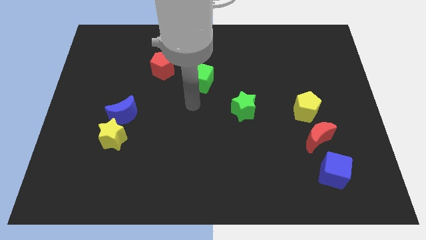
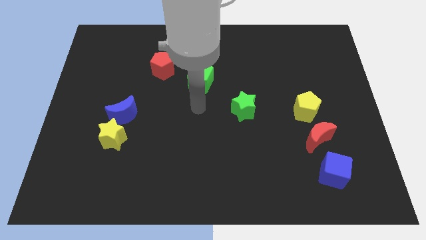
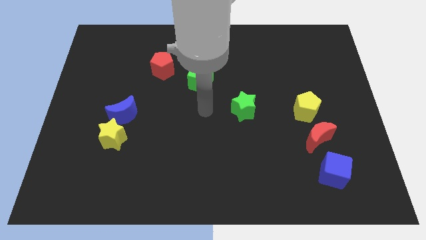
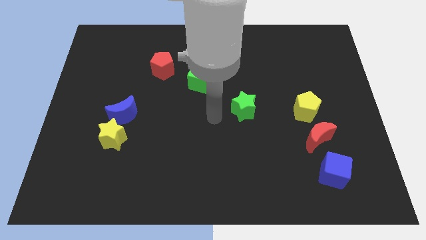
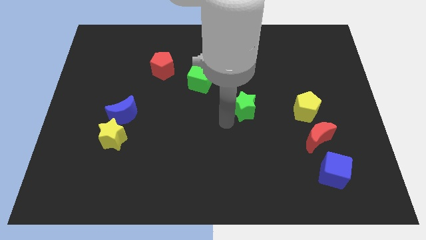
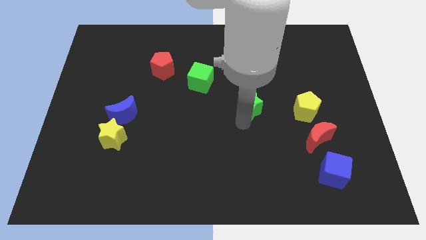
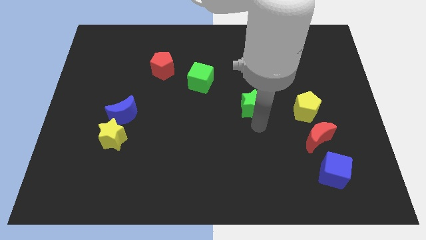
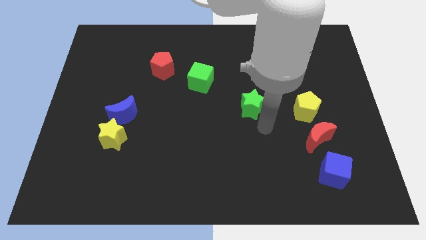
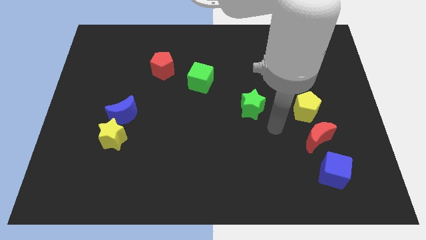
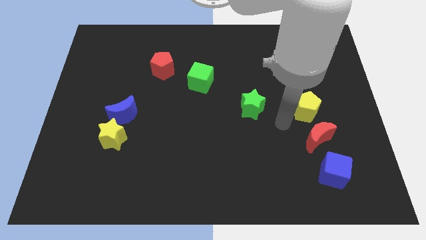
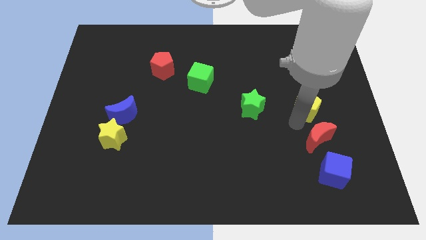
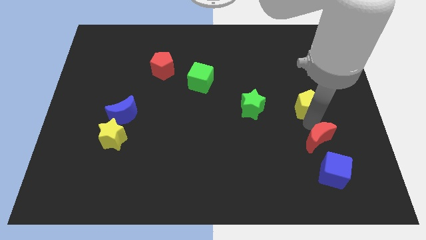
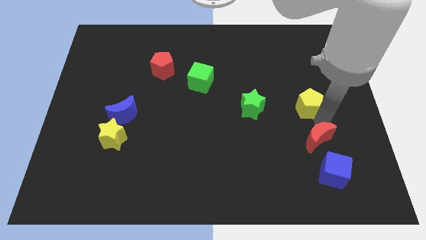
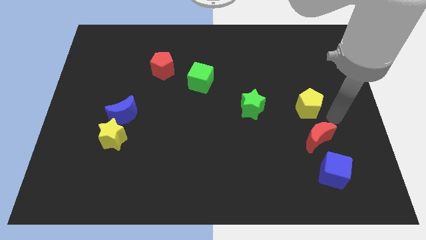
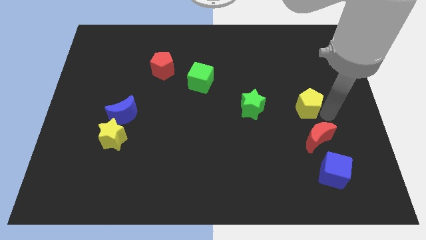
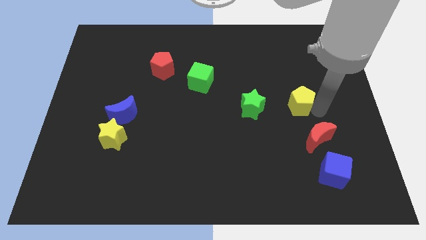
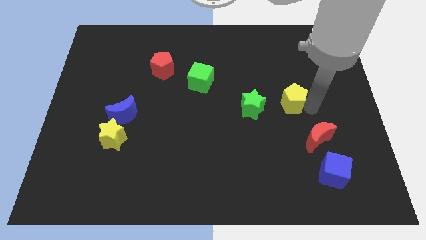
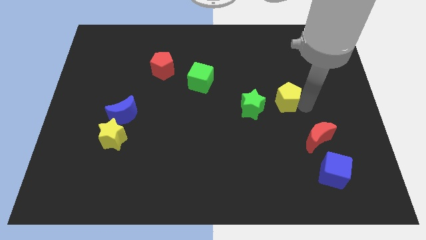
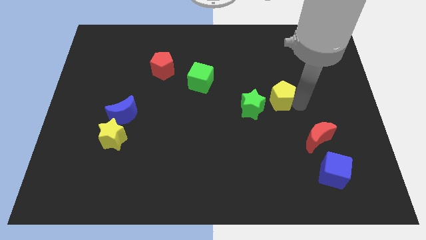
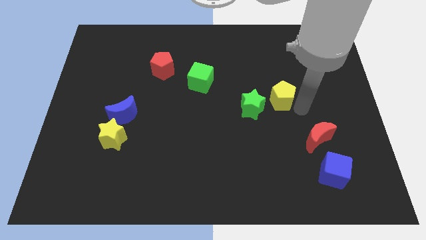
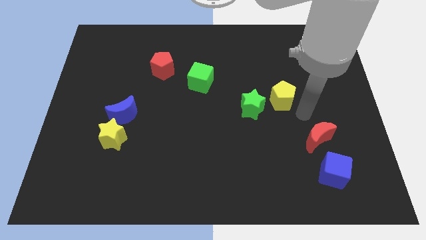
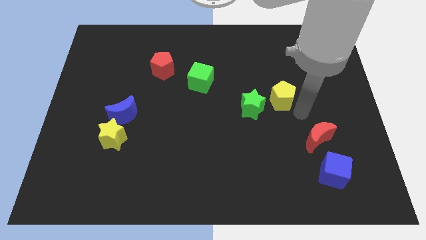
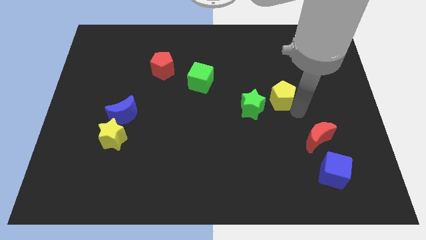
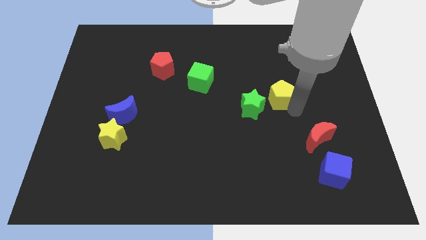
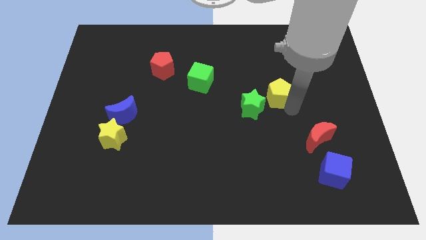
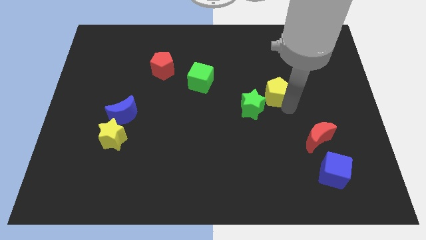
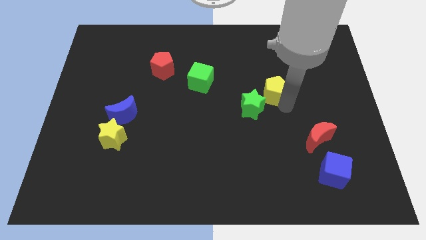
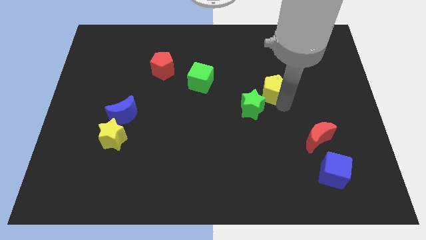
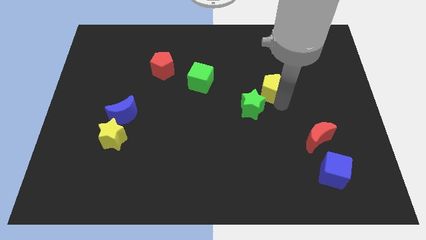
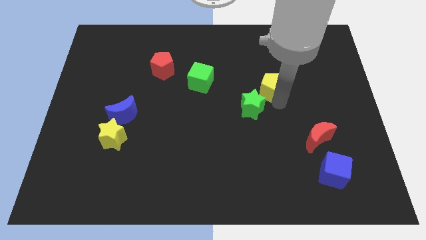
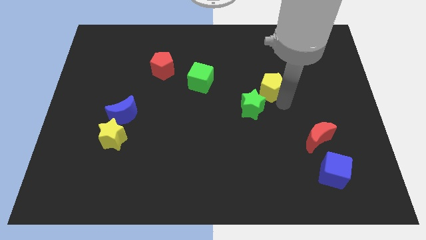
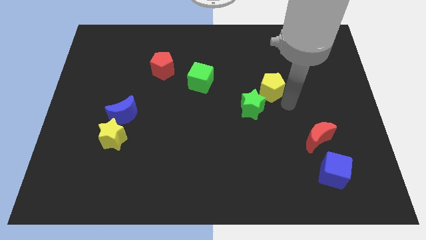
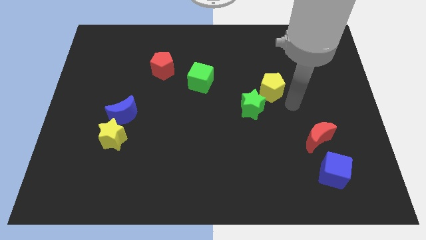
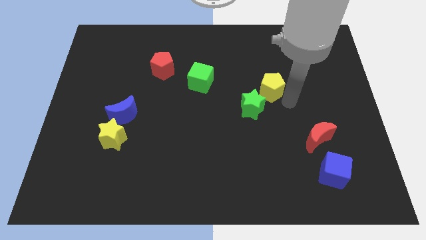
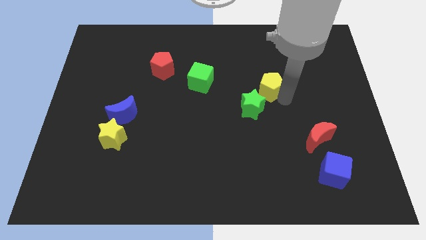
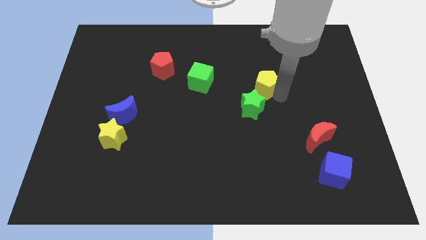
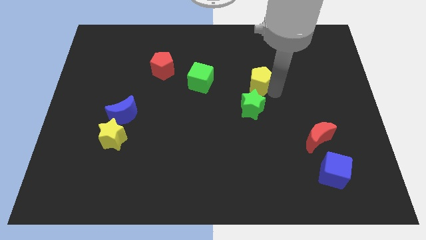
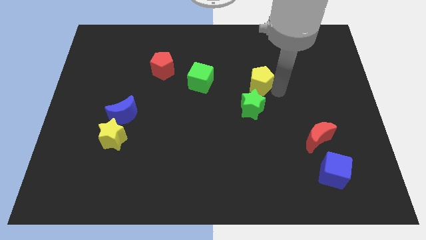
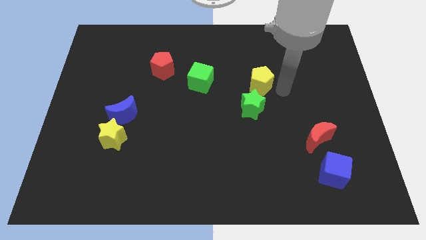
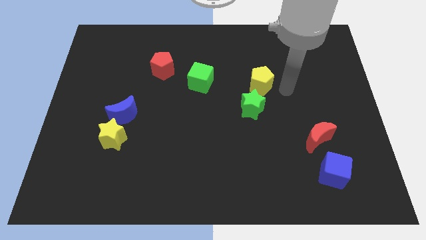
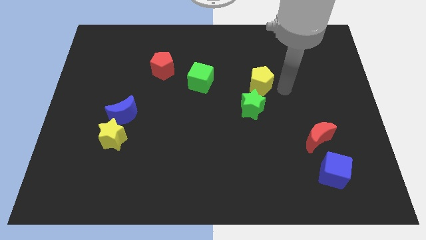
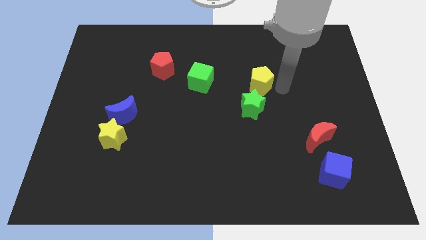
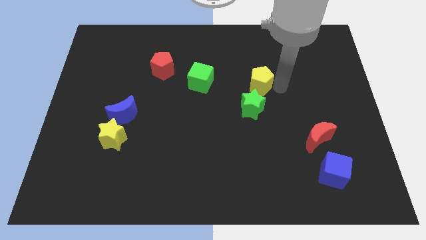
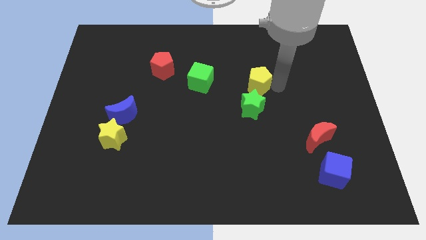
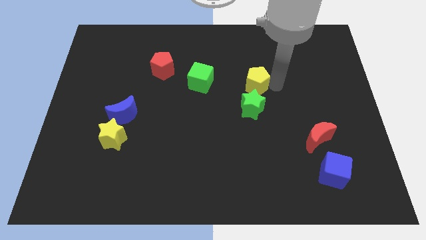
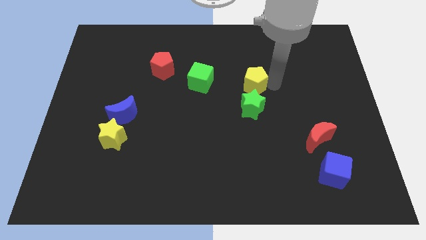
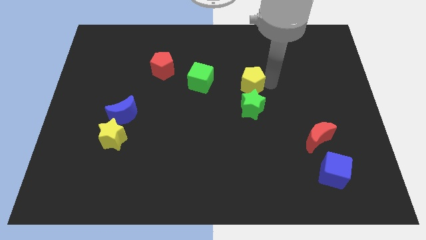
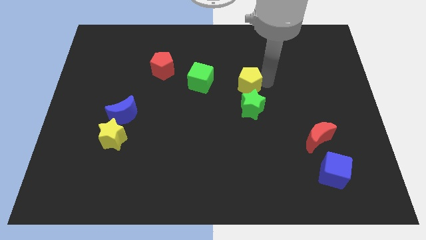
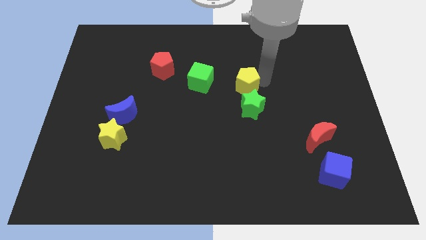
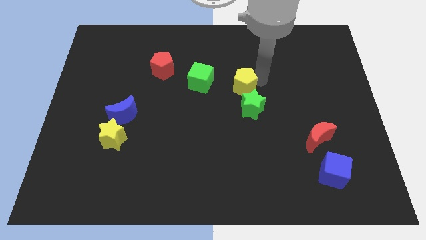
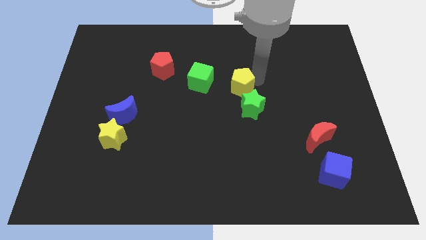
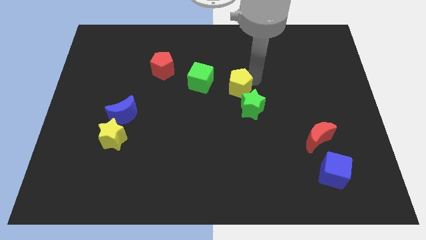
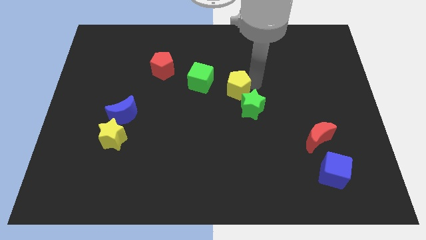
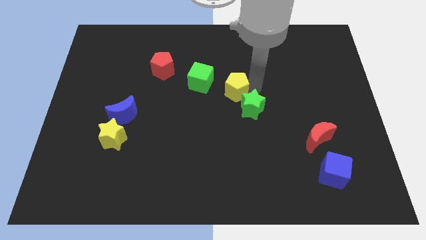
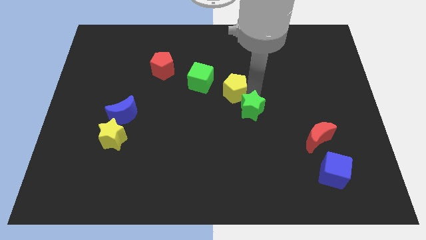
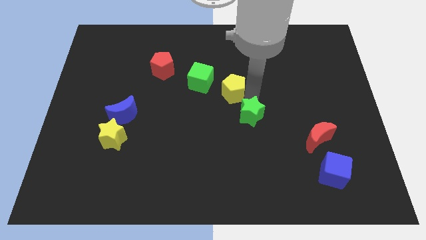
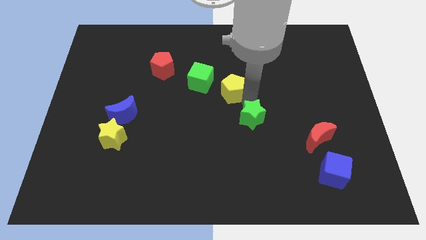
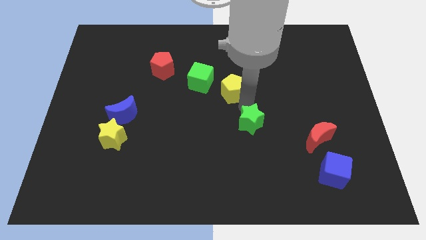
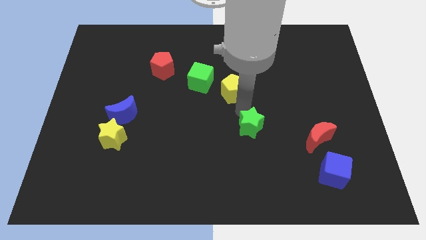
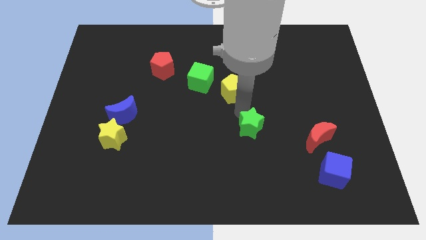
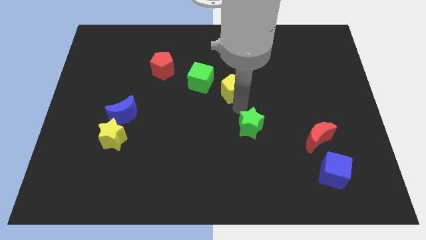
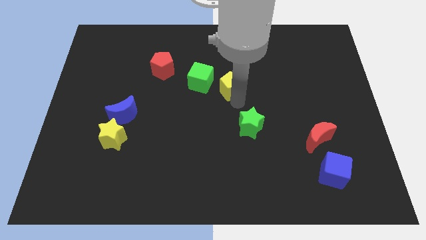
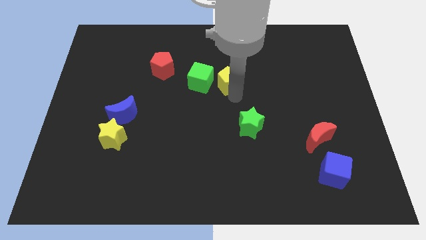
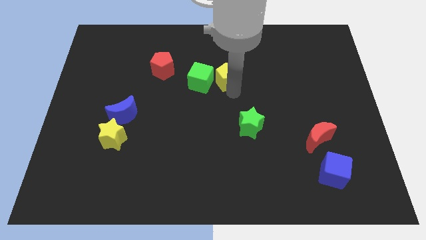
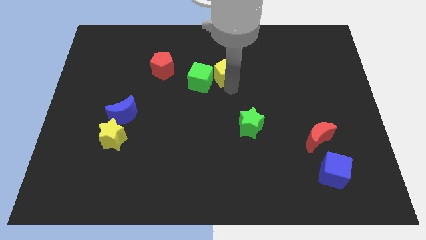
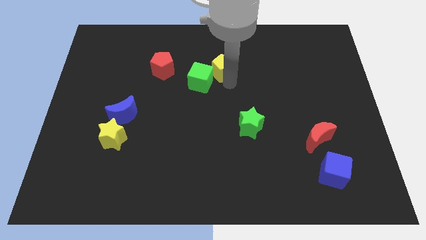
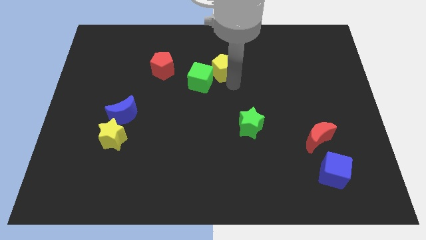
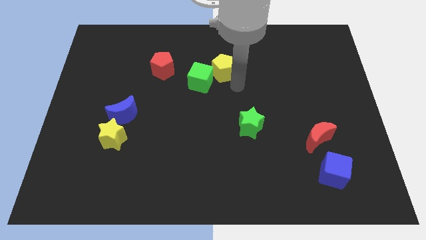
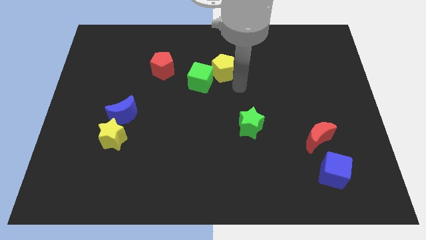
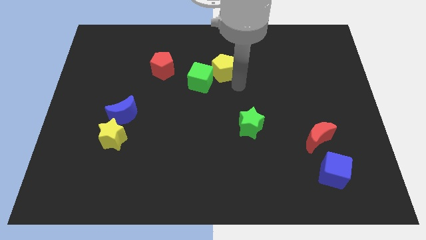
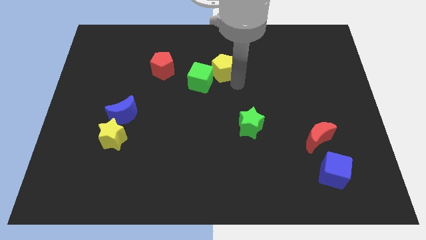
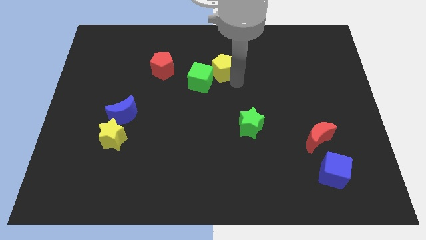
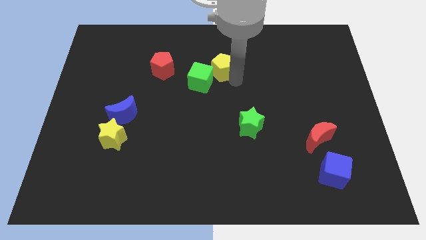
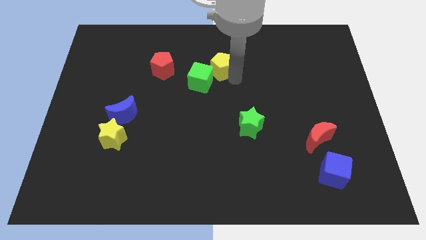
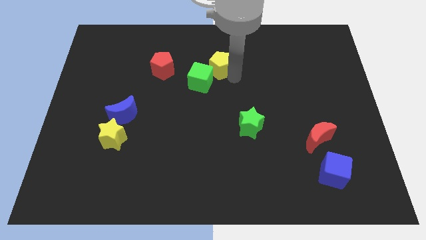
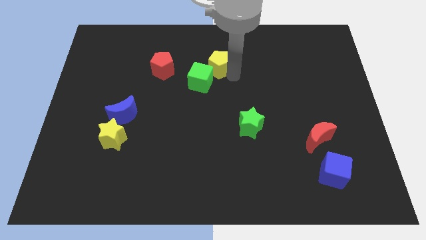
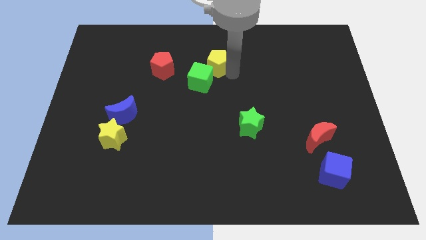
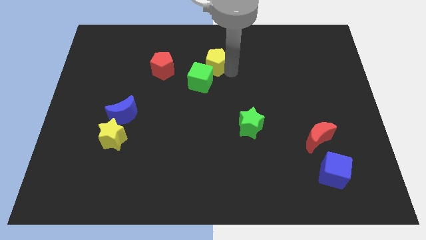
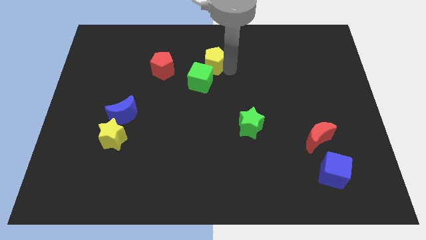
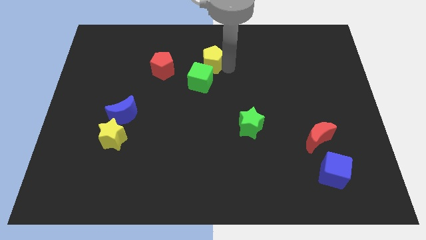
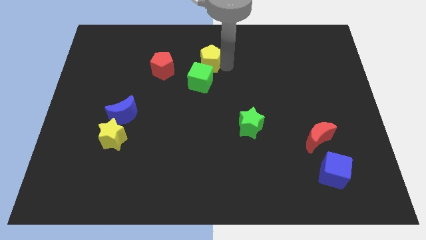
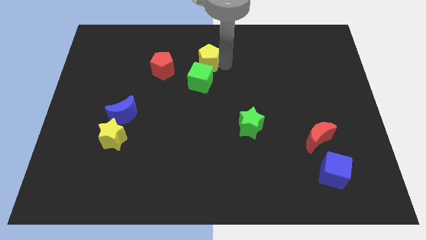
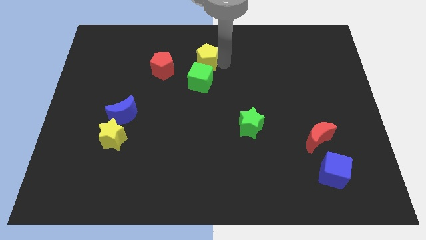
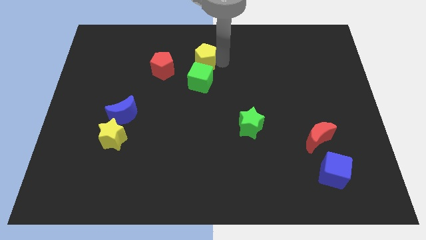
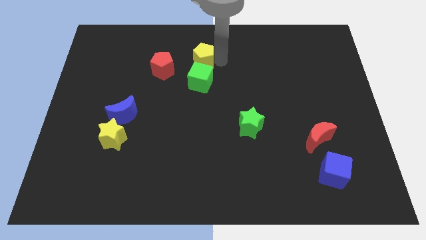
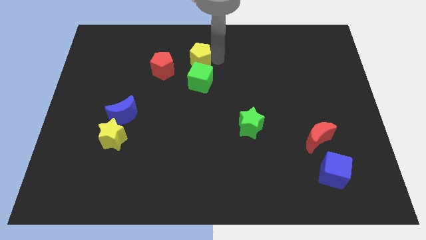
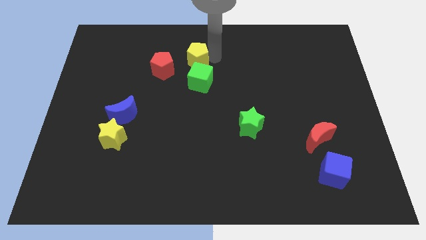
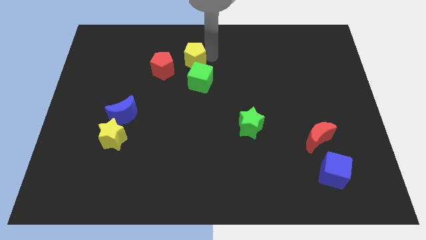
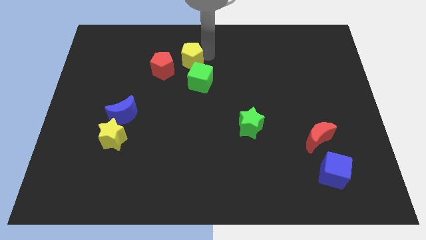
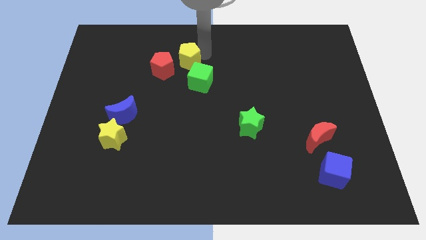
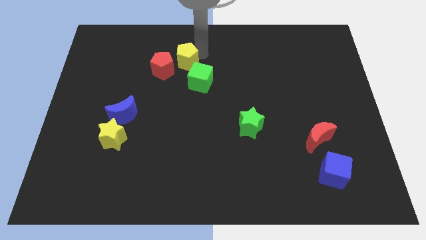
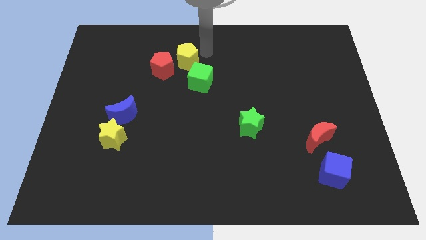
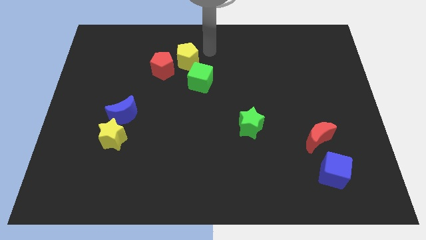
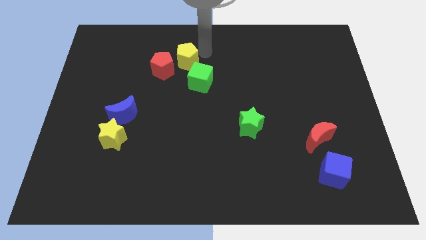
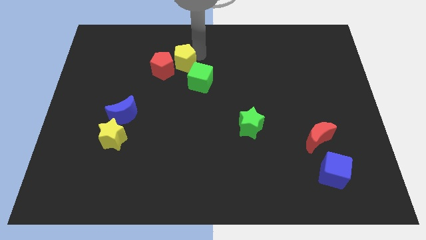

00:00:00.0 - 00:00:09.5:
move the yellow pentagon next to the red pentagon
